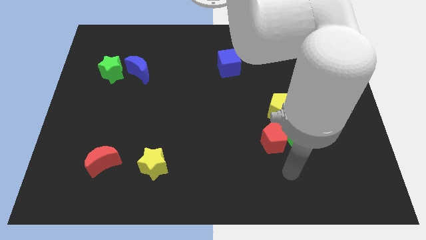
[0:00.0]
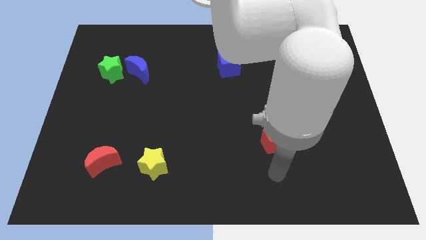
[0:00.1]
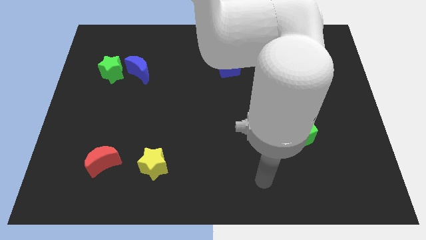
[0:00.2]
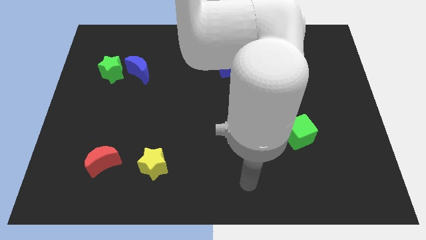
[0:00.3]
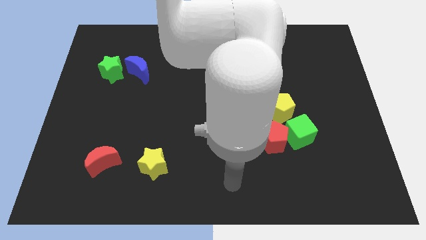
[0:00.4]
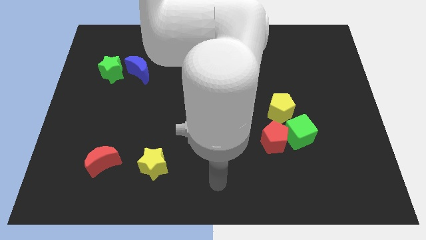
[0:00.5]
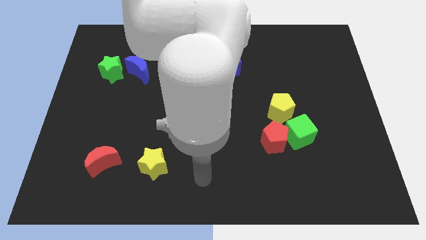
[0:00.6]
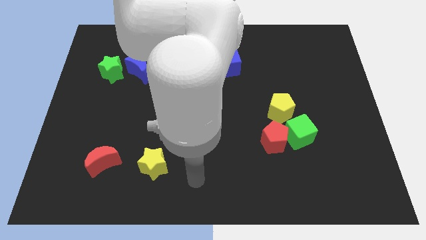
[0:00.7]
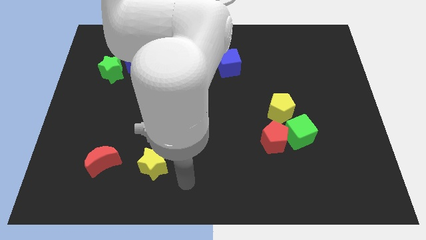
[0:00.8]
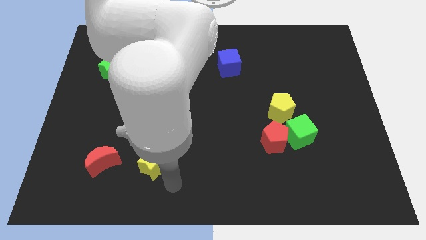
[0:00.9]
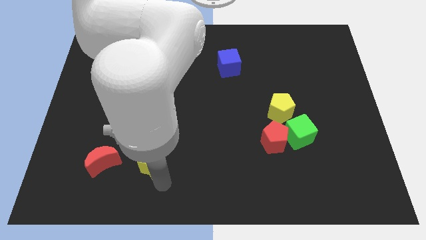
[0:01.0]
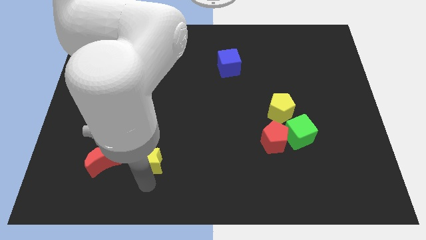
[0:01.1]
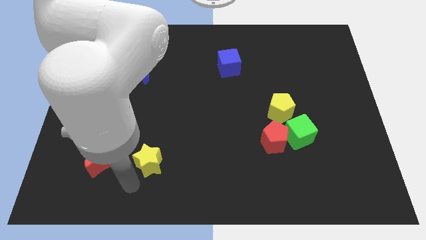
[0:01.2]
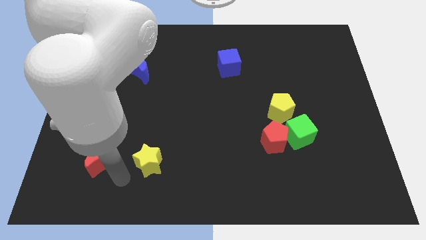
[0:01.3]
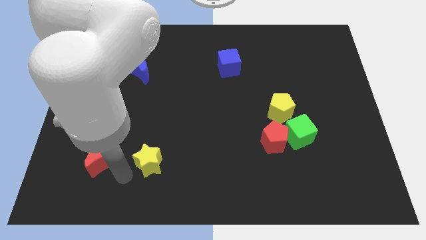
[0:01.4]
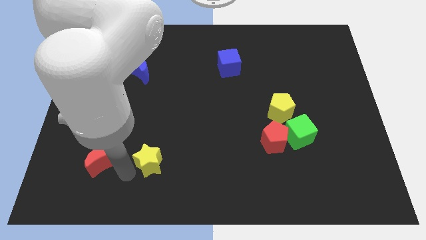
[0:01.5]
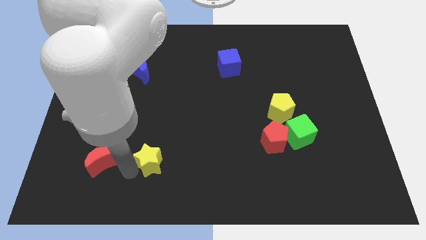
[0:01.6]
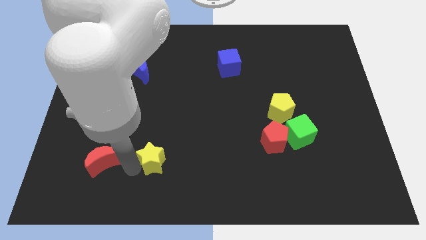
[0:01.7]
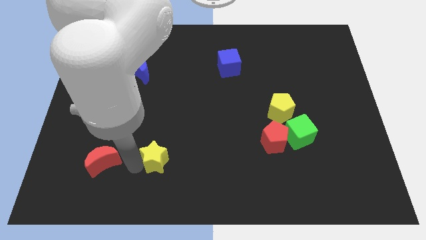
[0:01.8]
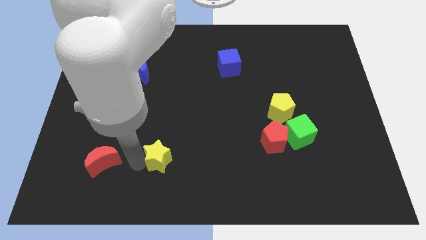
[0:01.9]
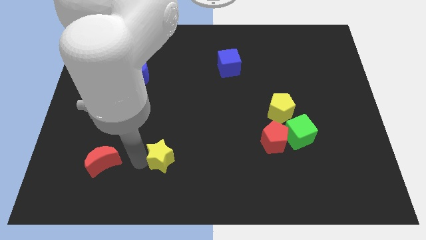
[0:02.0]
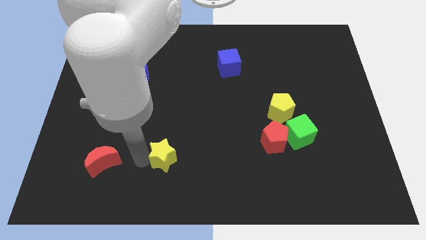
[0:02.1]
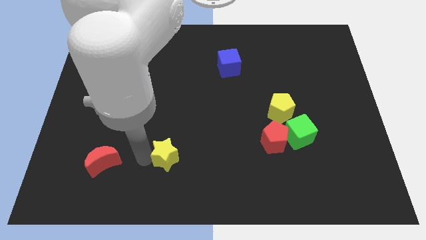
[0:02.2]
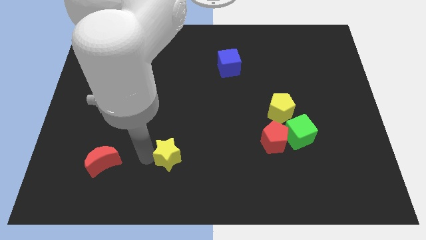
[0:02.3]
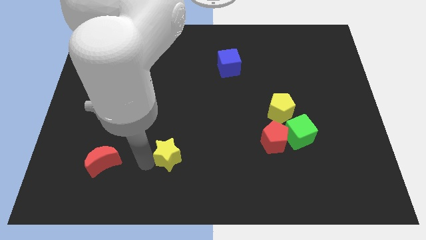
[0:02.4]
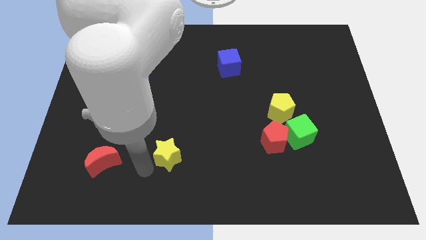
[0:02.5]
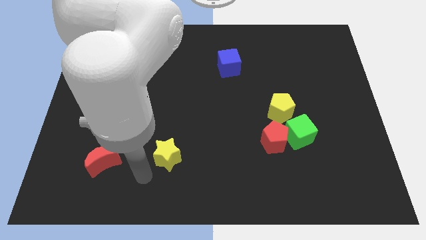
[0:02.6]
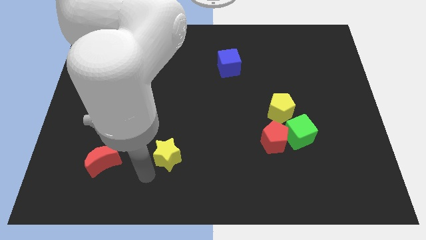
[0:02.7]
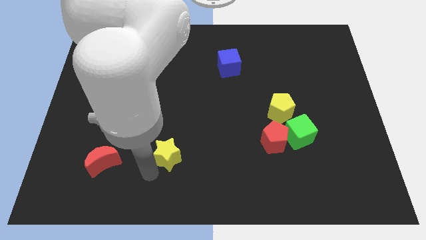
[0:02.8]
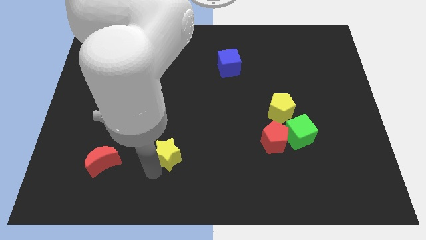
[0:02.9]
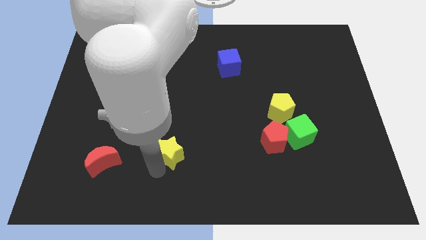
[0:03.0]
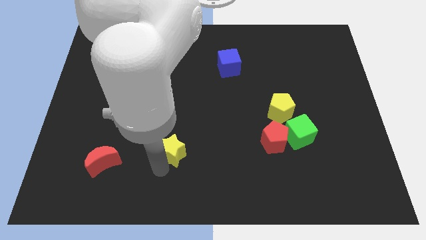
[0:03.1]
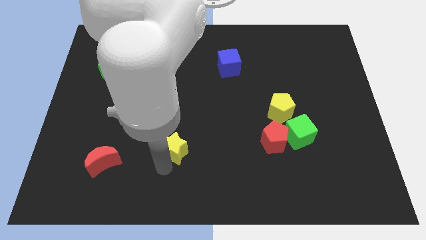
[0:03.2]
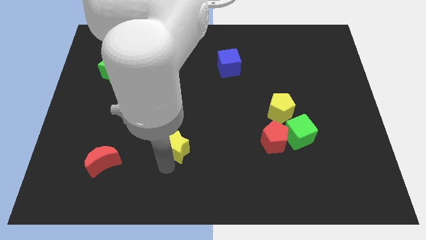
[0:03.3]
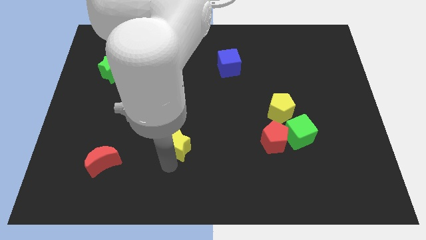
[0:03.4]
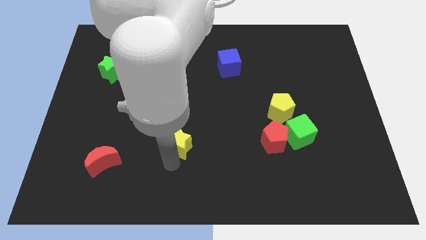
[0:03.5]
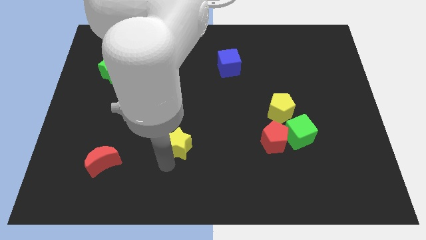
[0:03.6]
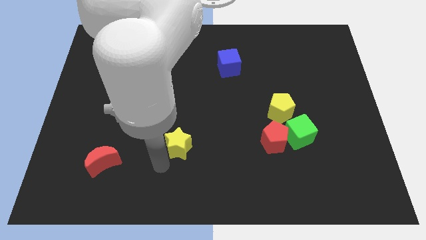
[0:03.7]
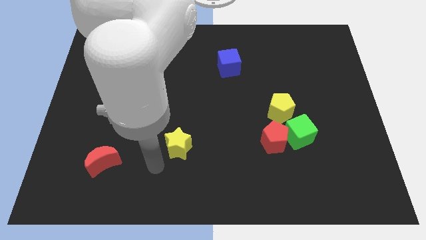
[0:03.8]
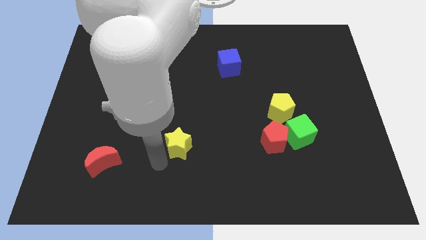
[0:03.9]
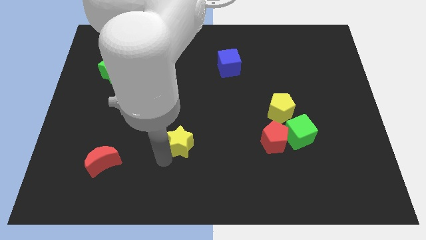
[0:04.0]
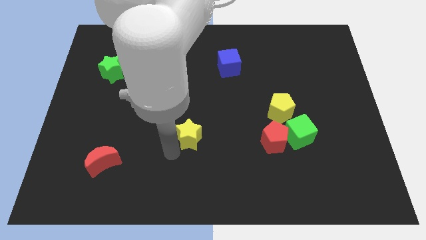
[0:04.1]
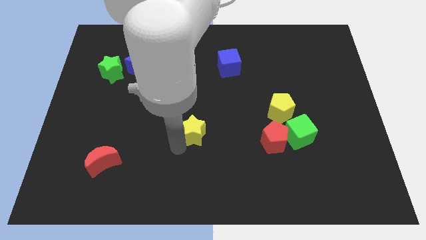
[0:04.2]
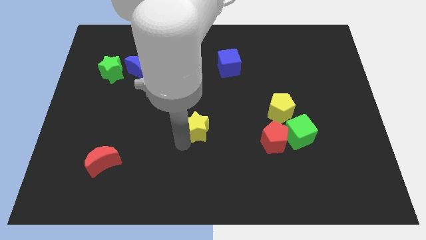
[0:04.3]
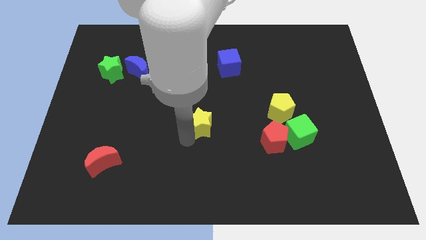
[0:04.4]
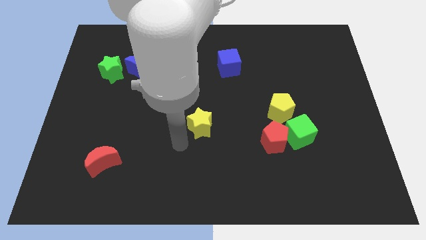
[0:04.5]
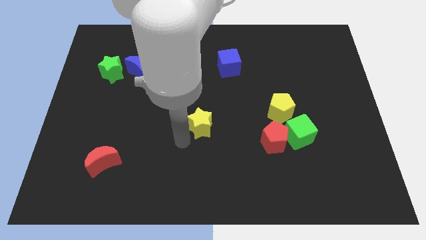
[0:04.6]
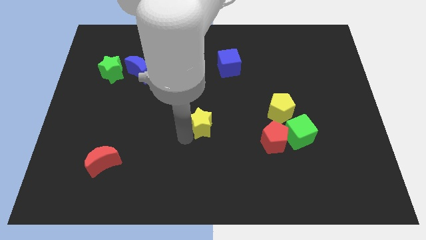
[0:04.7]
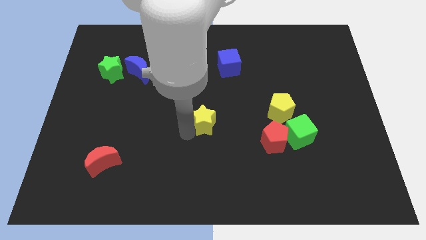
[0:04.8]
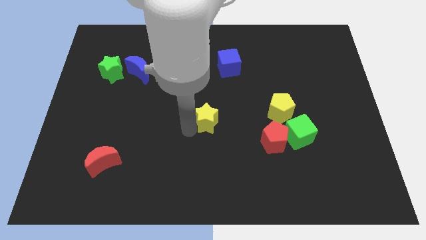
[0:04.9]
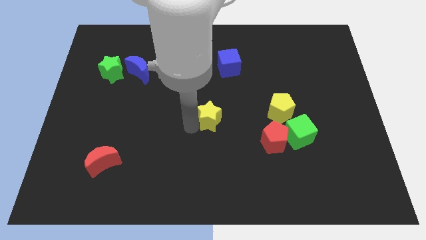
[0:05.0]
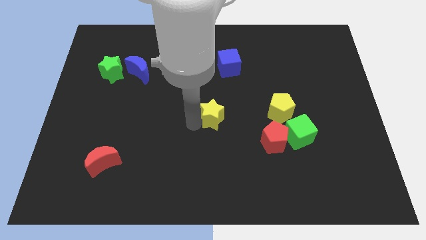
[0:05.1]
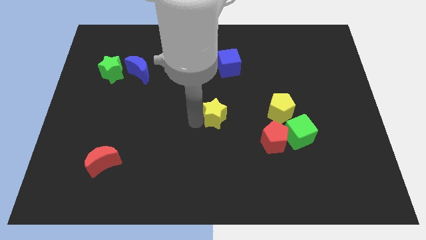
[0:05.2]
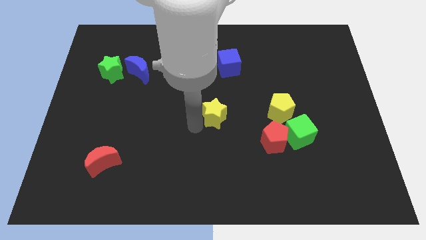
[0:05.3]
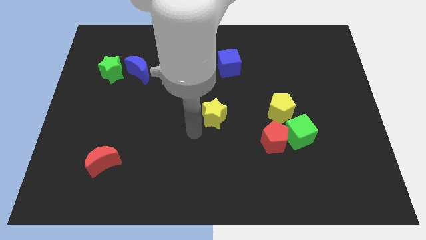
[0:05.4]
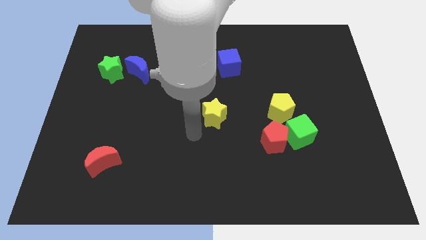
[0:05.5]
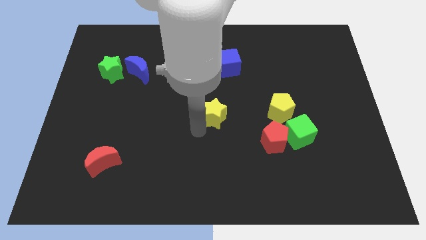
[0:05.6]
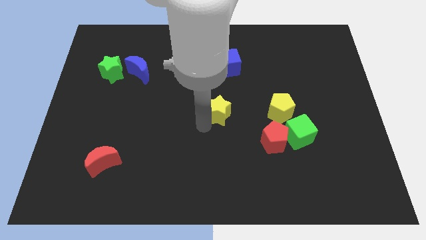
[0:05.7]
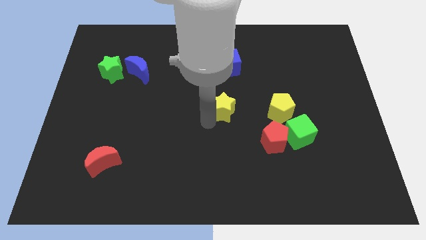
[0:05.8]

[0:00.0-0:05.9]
move the yellow star upwards and right

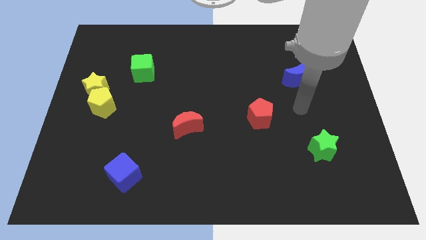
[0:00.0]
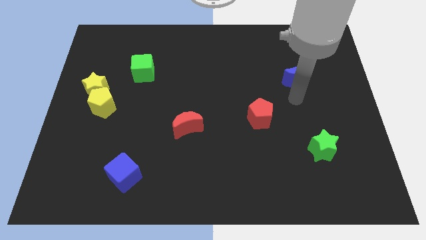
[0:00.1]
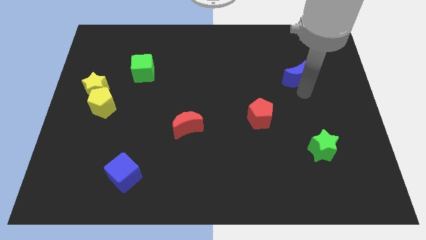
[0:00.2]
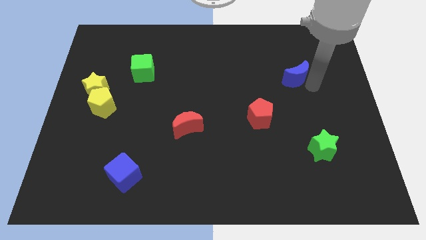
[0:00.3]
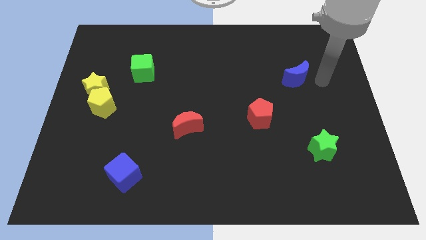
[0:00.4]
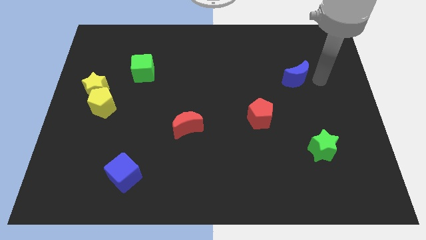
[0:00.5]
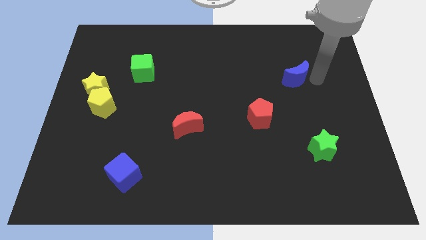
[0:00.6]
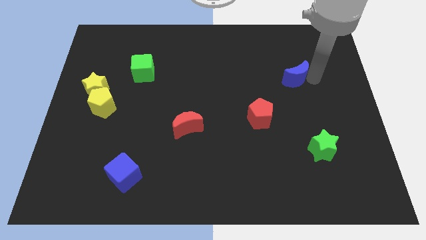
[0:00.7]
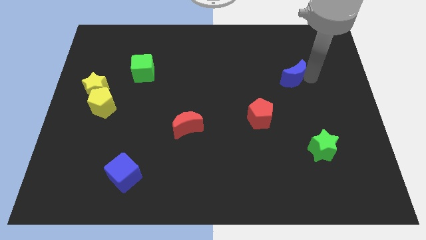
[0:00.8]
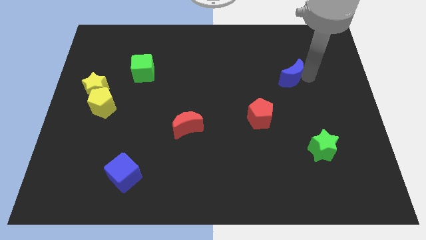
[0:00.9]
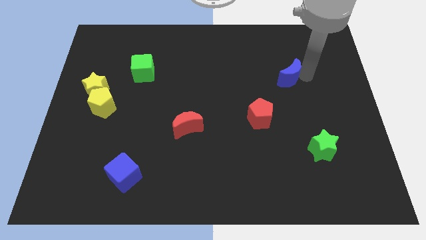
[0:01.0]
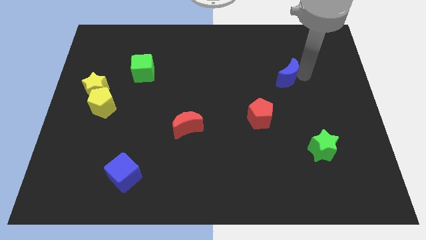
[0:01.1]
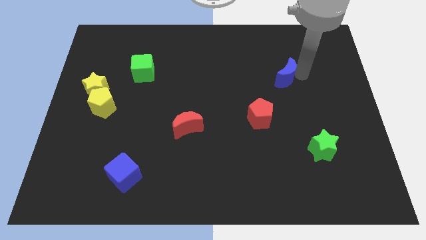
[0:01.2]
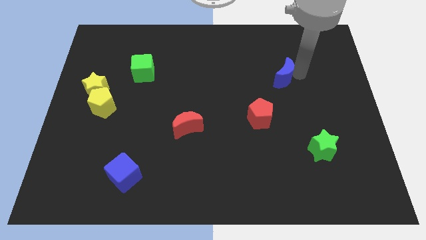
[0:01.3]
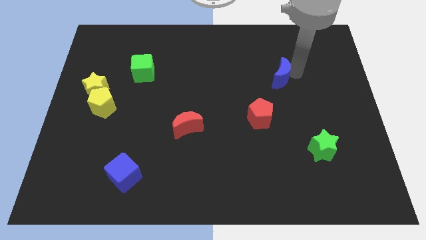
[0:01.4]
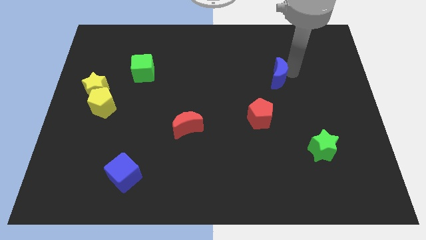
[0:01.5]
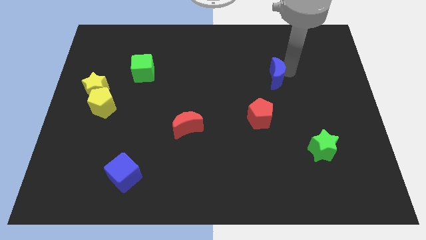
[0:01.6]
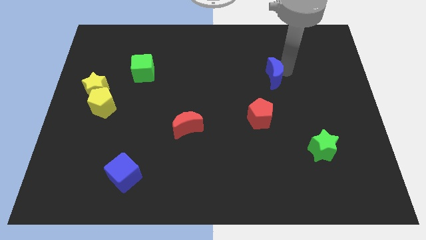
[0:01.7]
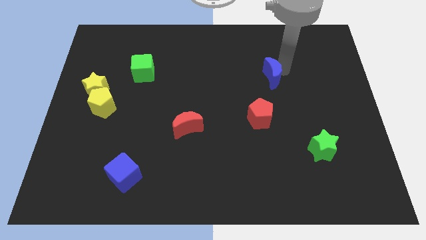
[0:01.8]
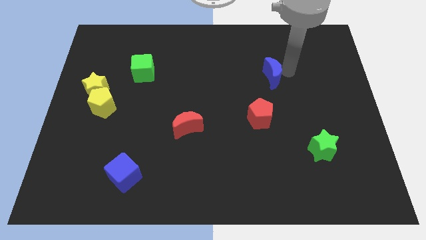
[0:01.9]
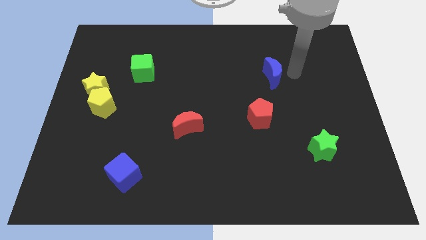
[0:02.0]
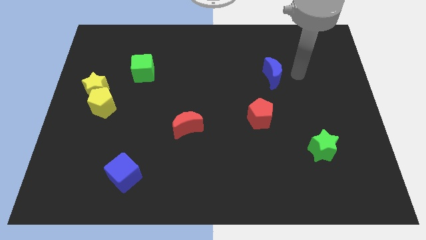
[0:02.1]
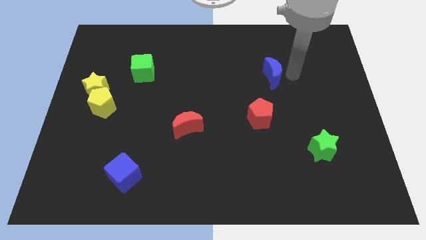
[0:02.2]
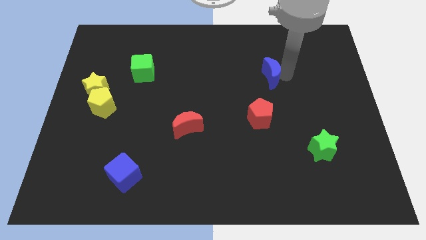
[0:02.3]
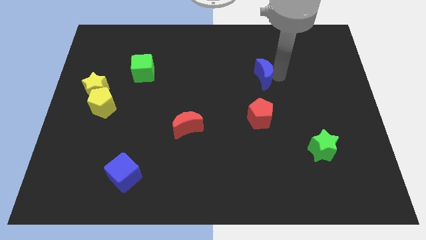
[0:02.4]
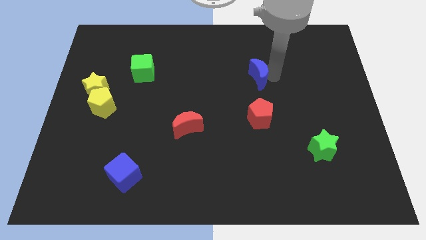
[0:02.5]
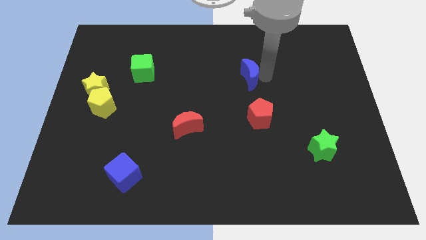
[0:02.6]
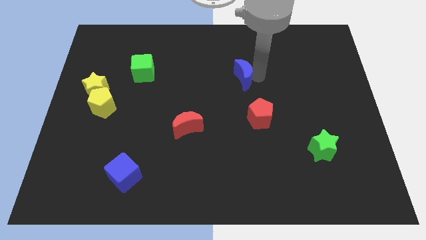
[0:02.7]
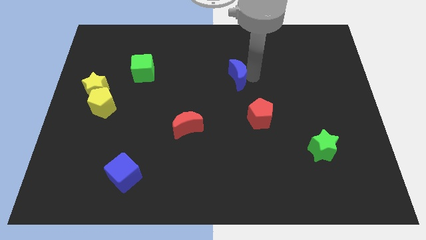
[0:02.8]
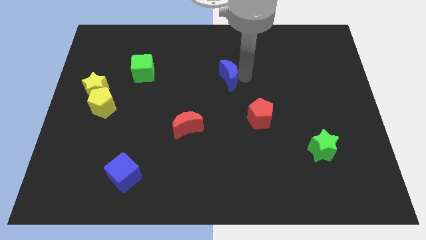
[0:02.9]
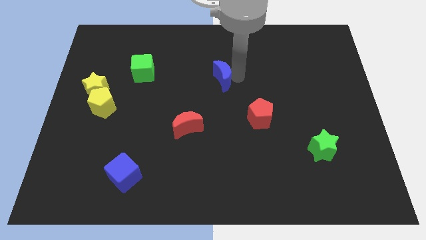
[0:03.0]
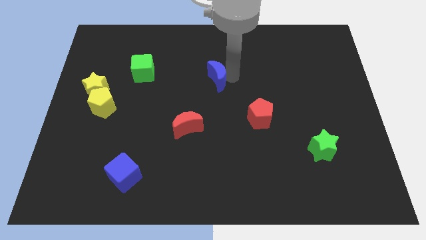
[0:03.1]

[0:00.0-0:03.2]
push the blue moon left
